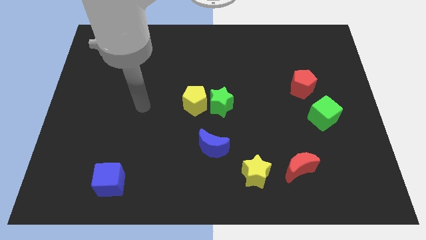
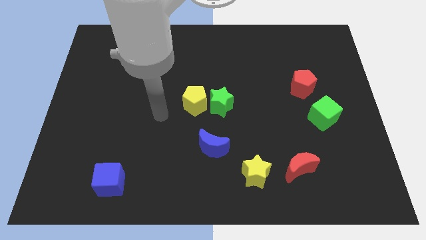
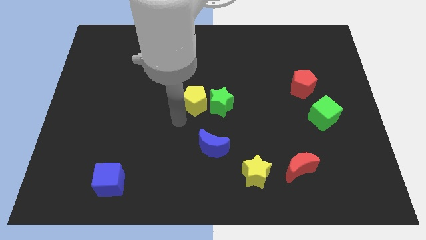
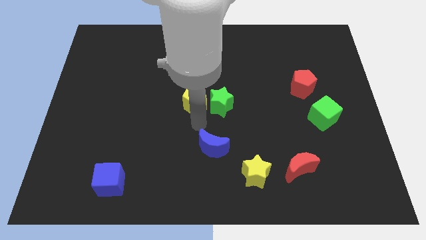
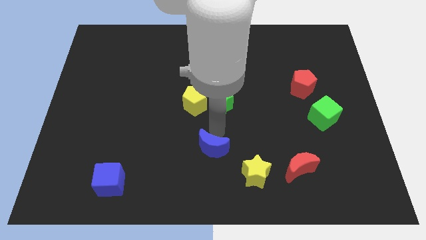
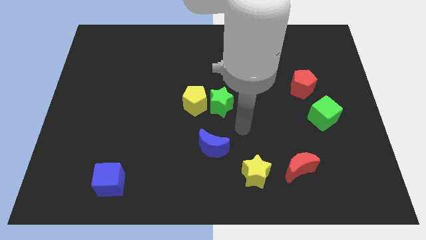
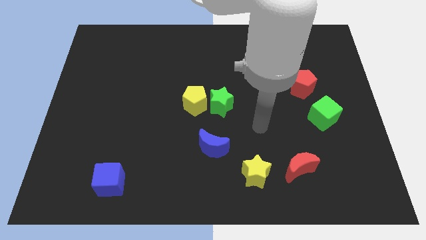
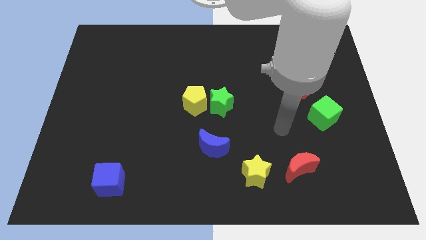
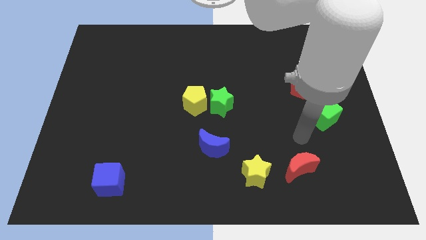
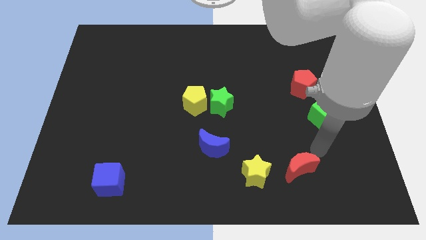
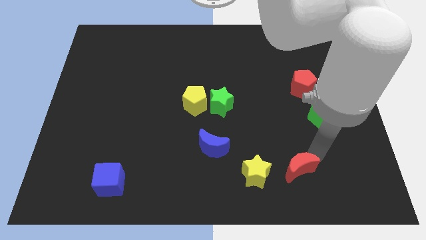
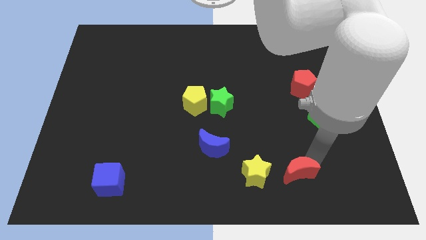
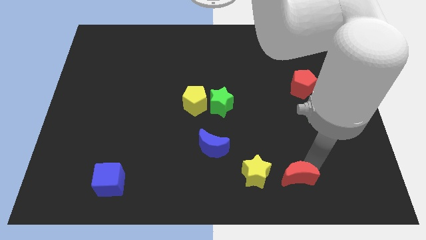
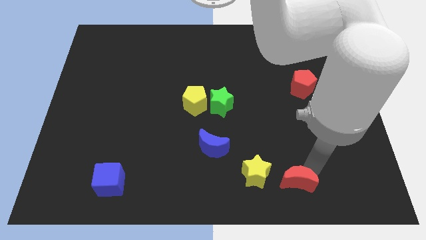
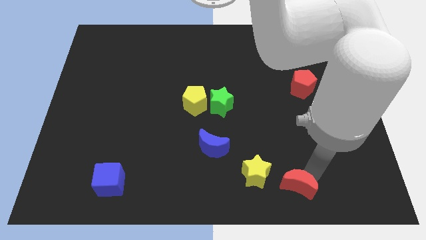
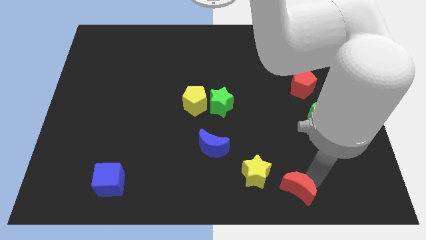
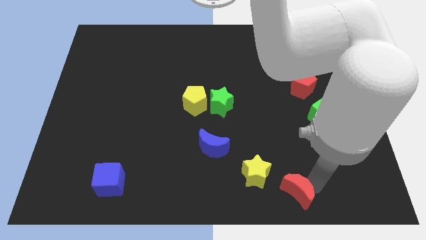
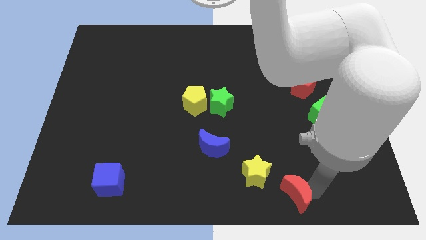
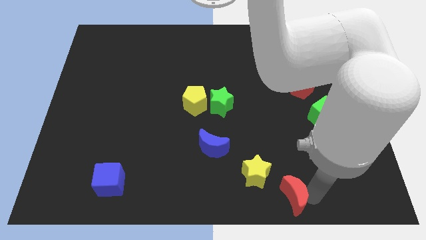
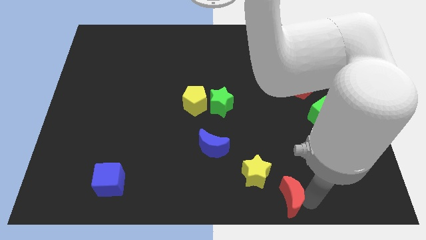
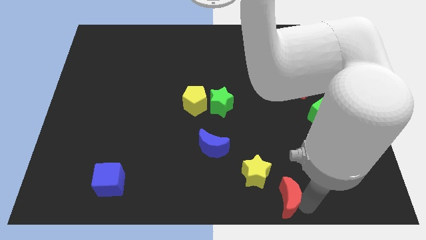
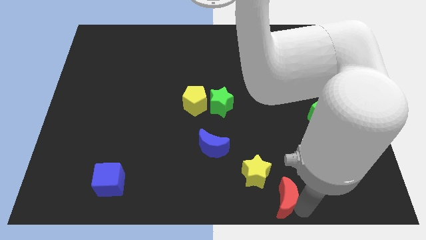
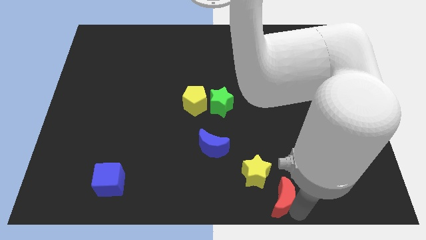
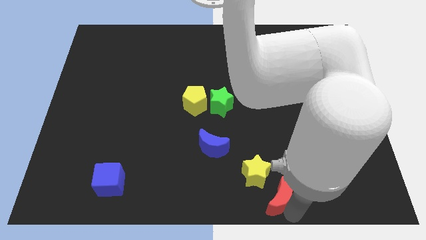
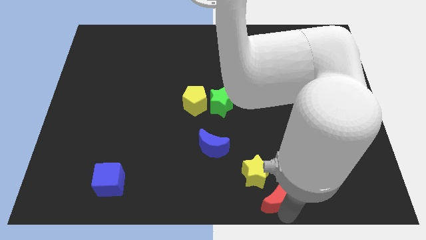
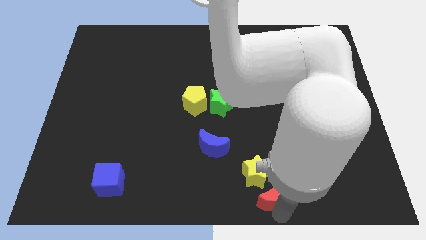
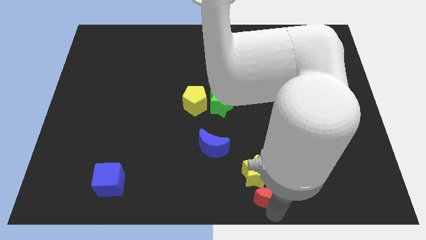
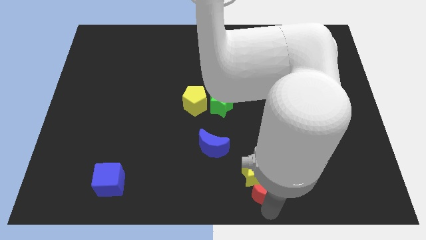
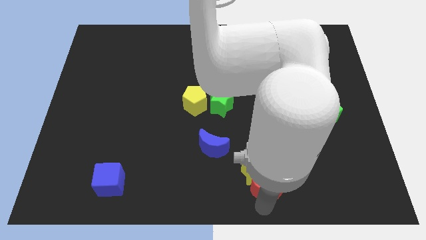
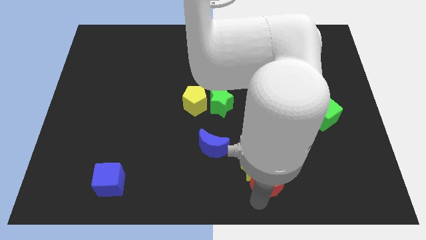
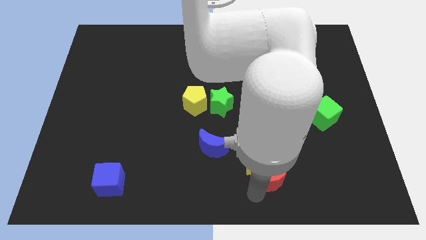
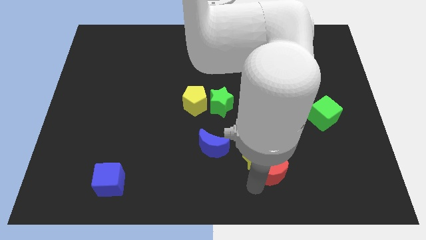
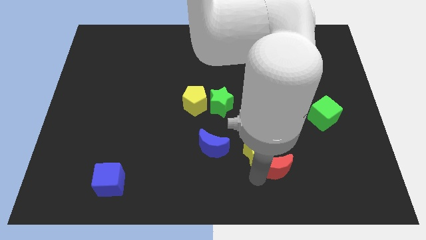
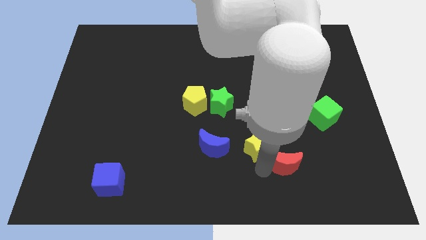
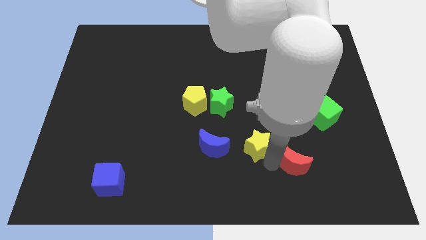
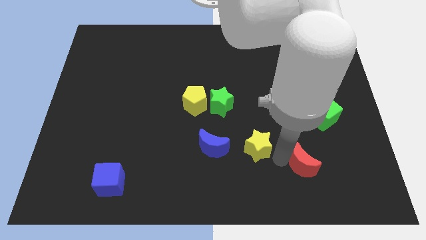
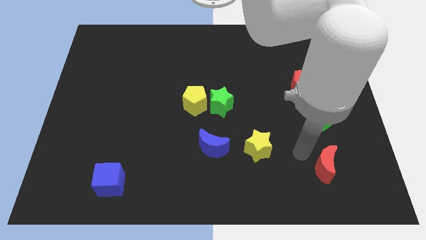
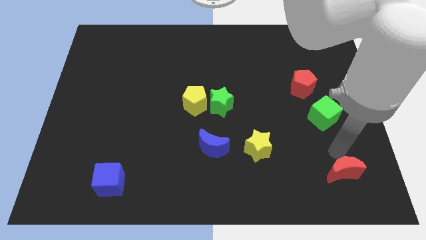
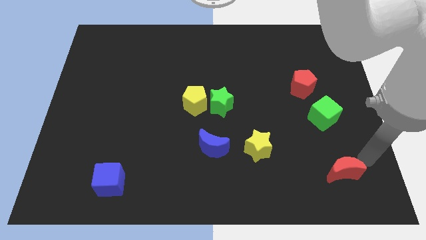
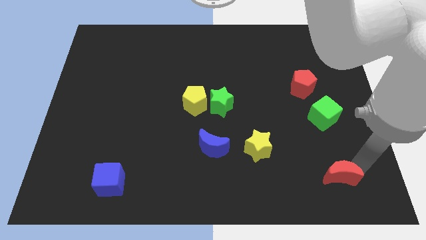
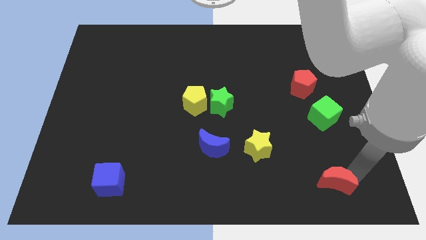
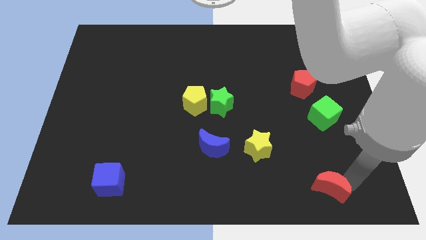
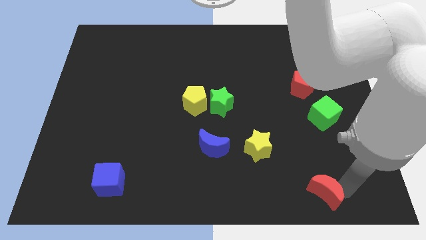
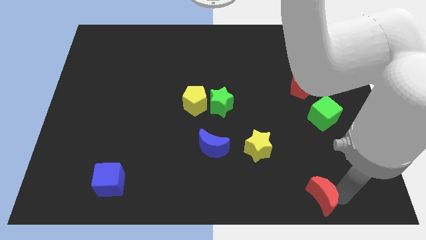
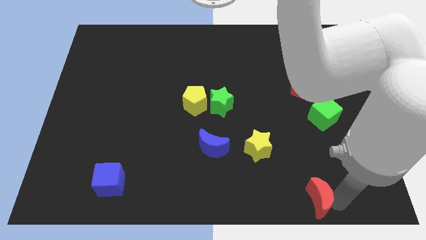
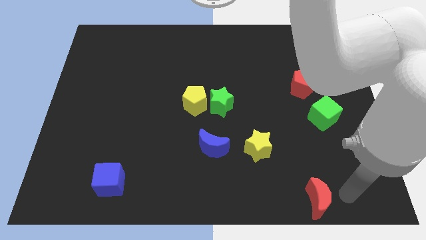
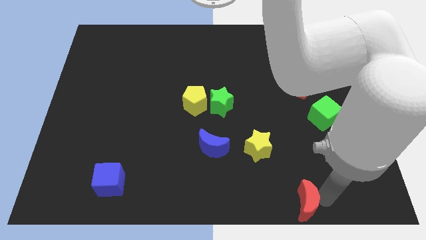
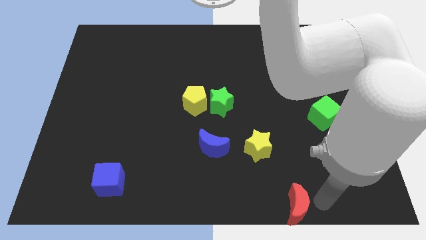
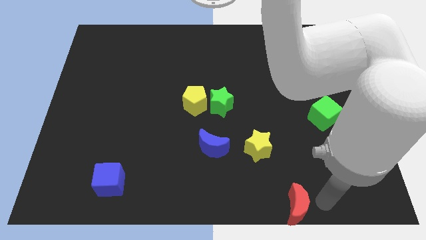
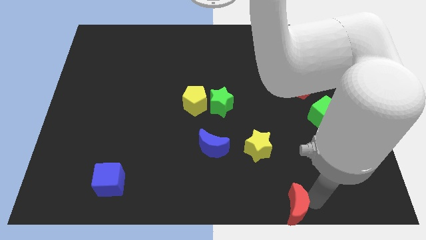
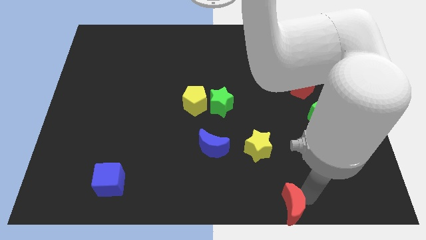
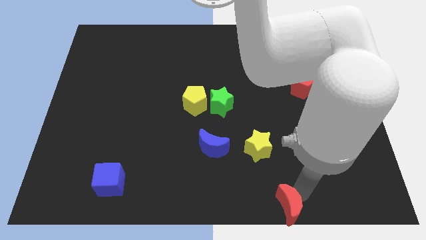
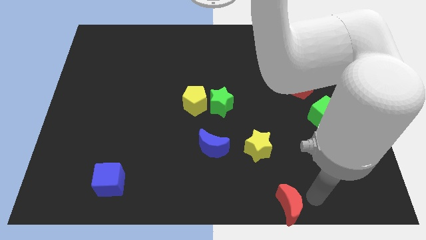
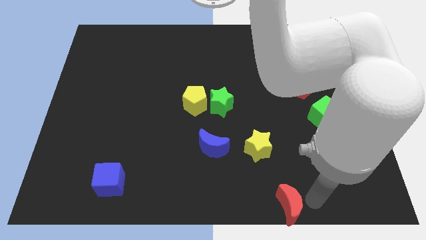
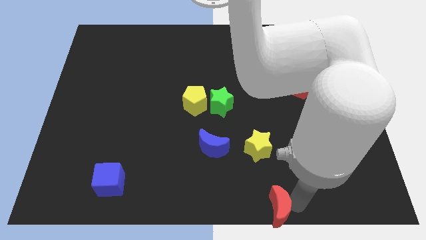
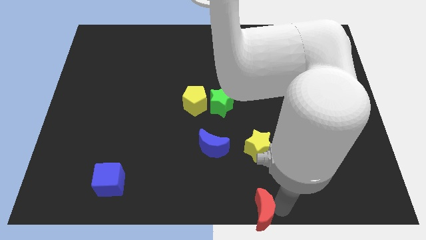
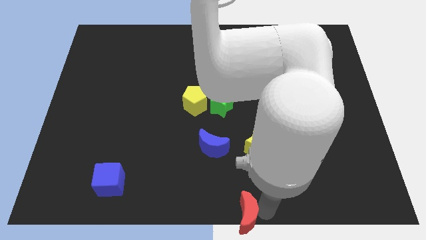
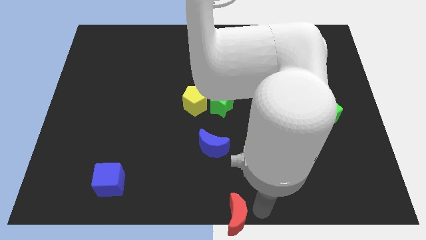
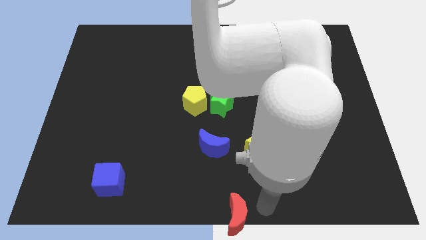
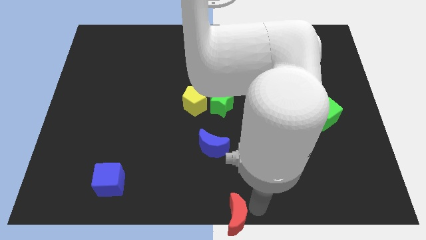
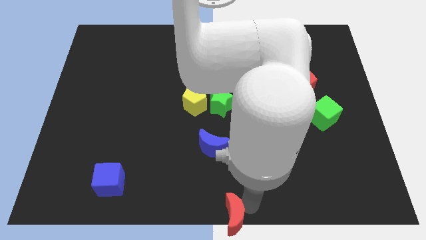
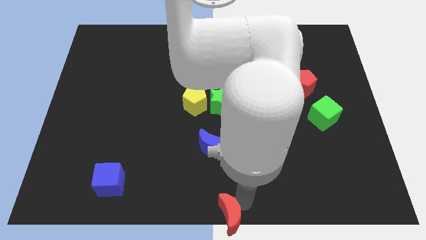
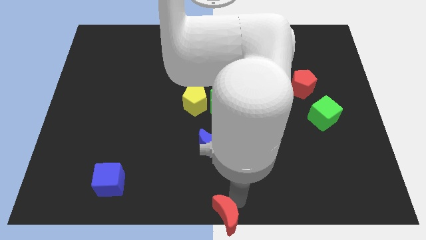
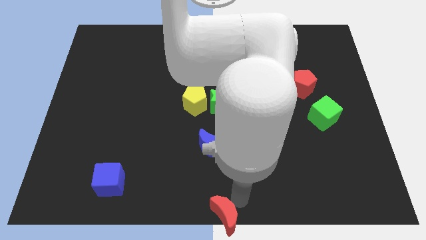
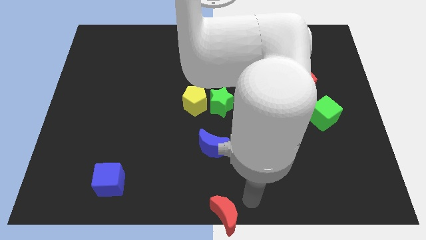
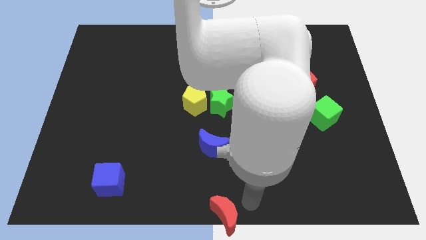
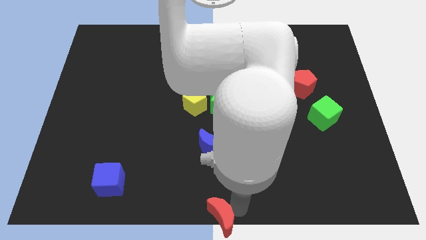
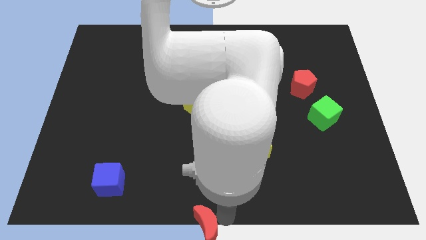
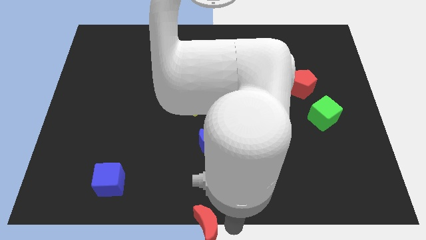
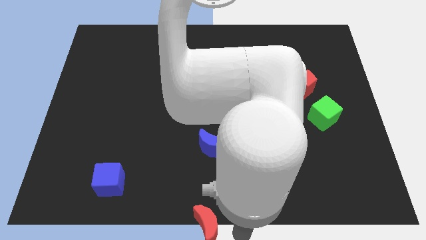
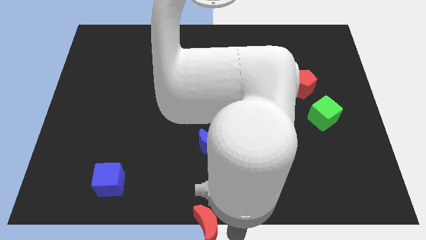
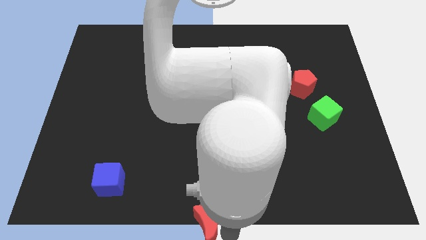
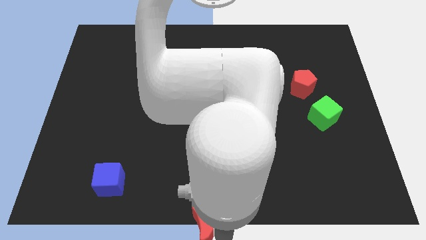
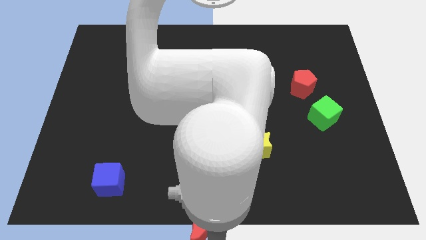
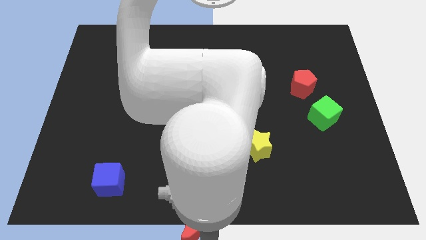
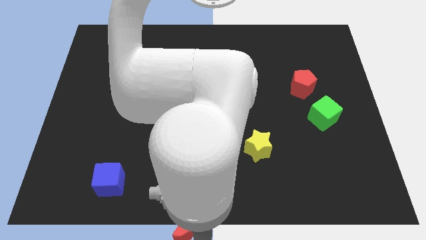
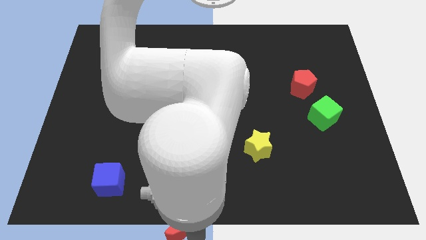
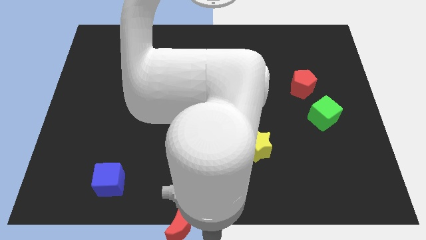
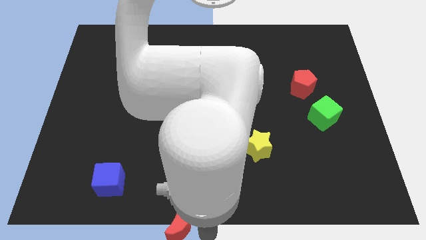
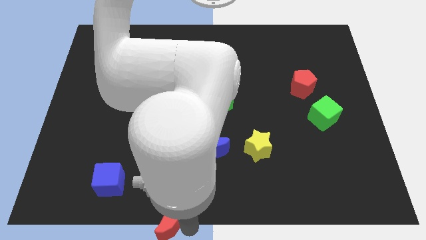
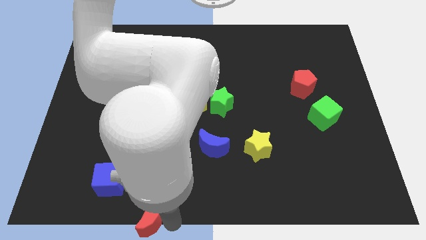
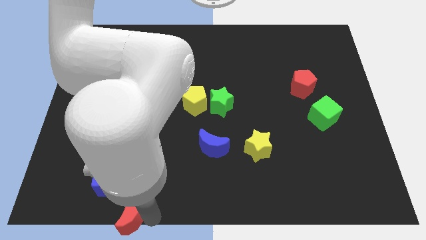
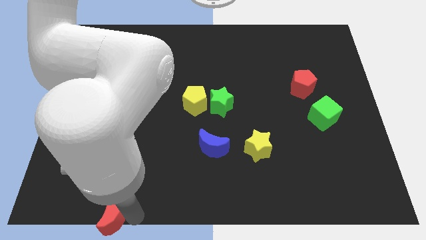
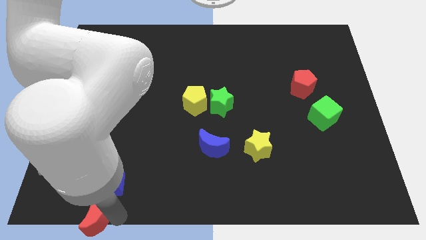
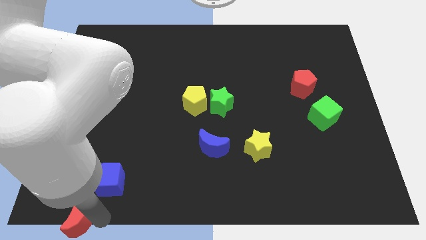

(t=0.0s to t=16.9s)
put the red moon to the bottom left corner
